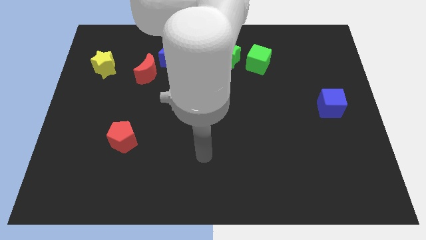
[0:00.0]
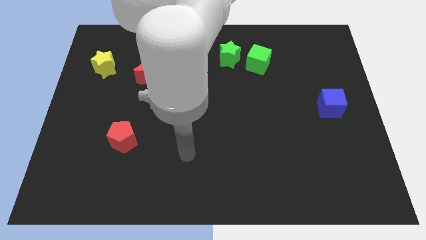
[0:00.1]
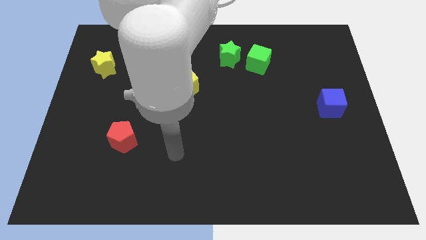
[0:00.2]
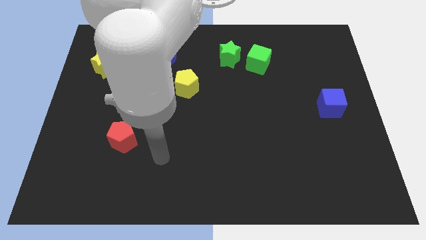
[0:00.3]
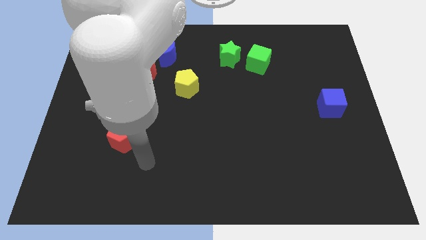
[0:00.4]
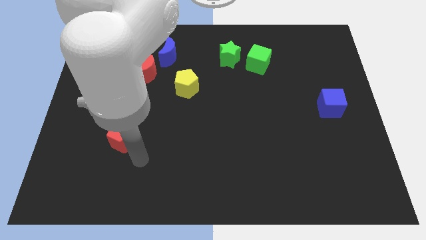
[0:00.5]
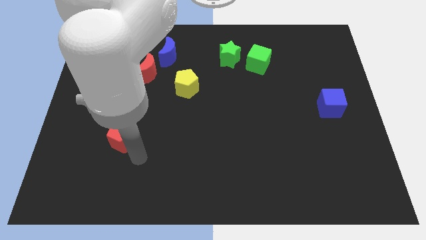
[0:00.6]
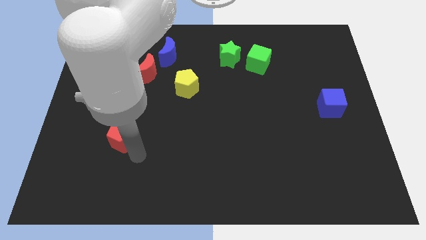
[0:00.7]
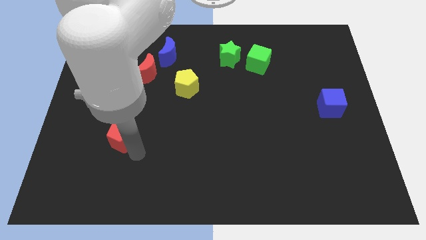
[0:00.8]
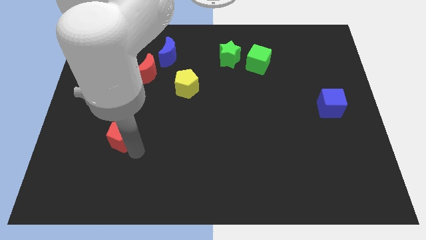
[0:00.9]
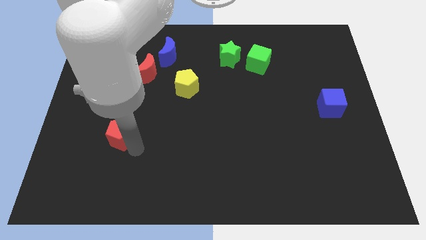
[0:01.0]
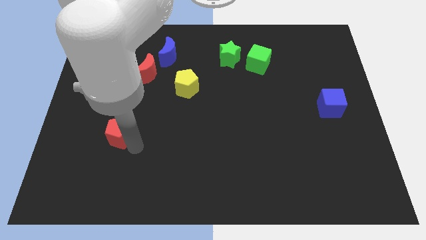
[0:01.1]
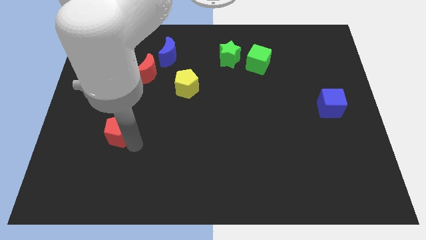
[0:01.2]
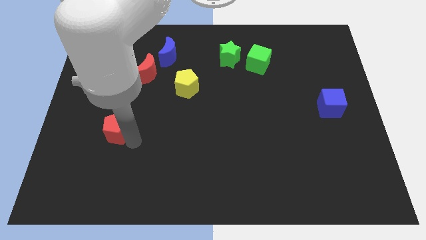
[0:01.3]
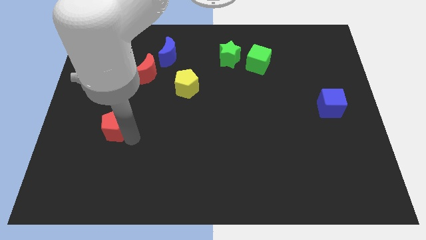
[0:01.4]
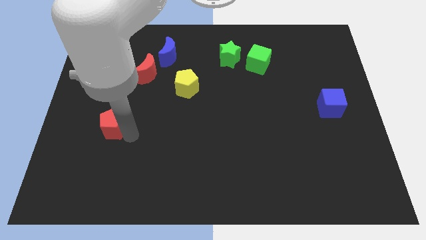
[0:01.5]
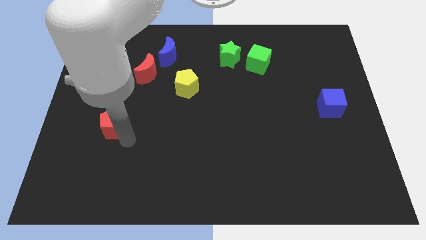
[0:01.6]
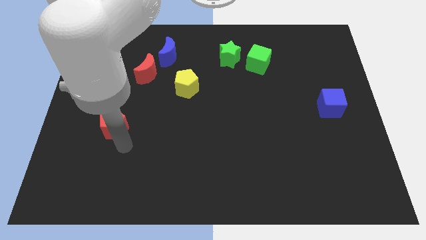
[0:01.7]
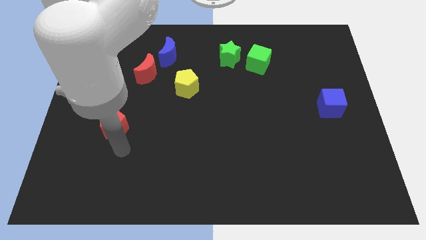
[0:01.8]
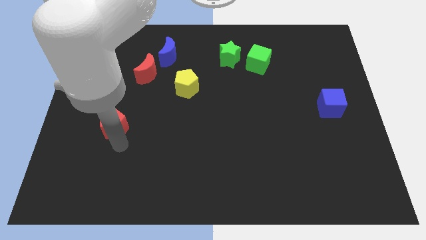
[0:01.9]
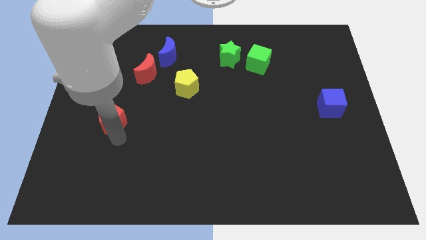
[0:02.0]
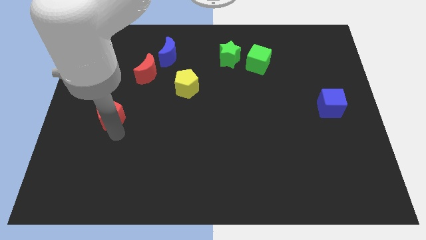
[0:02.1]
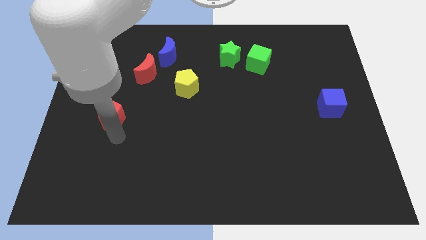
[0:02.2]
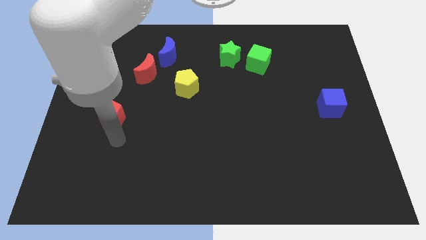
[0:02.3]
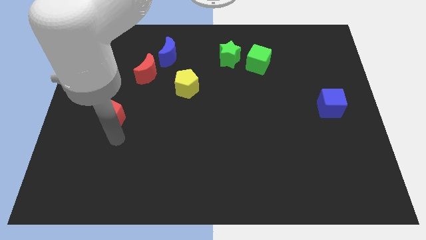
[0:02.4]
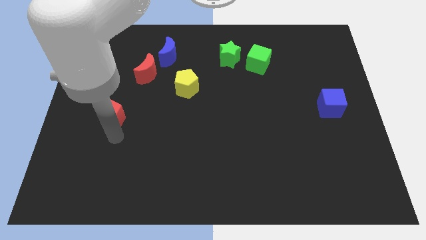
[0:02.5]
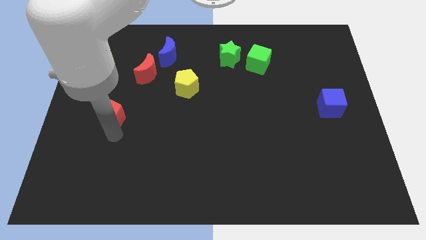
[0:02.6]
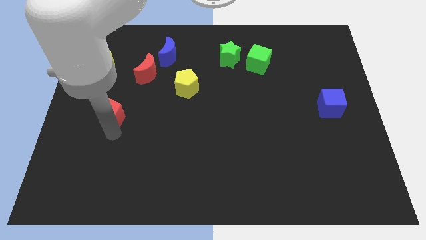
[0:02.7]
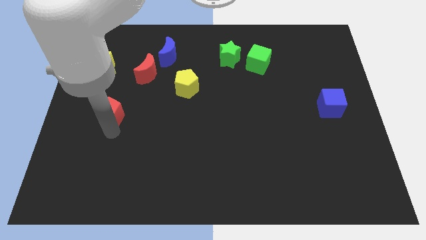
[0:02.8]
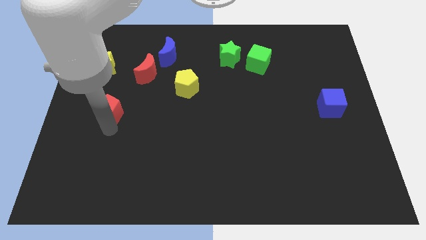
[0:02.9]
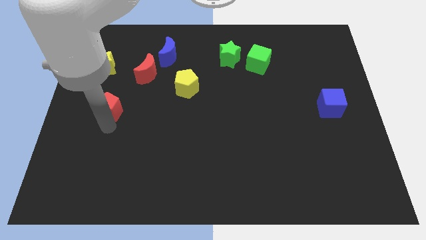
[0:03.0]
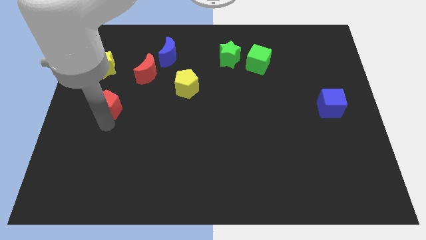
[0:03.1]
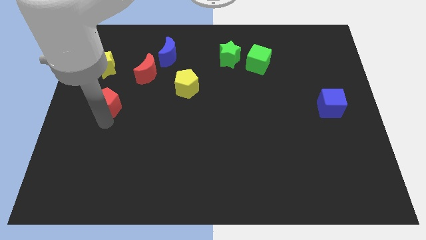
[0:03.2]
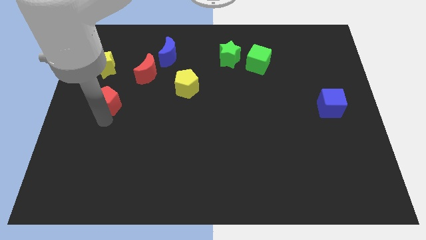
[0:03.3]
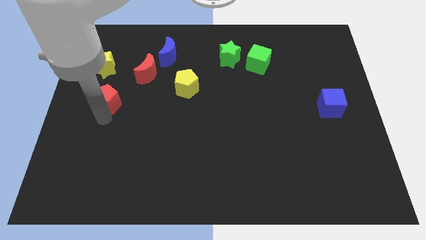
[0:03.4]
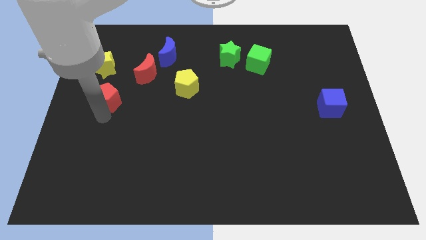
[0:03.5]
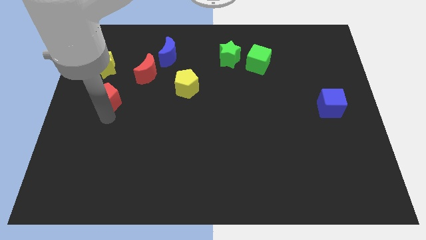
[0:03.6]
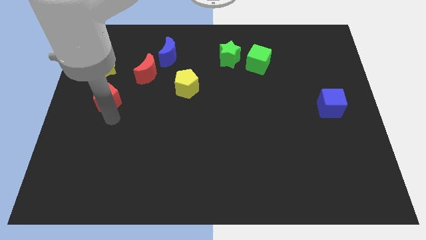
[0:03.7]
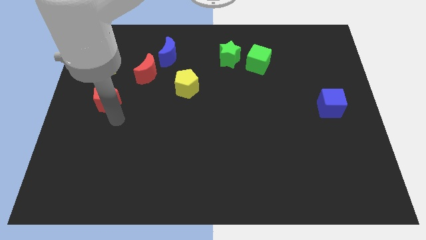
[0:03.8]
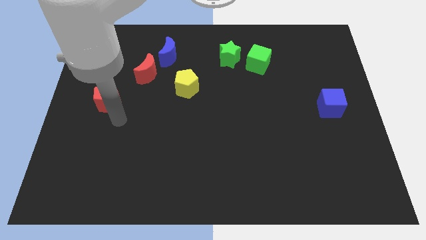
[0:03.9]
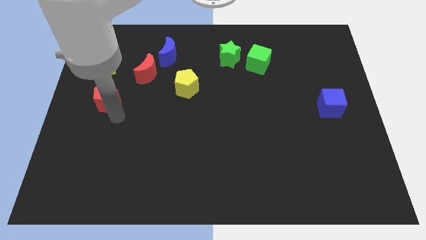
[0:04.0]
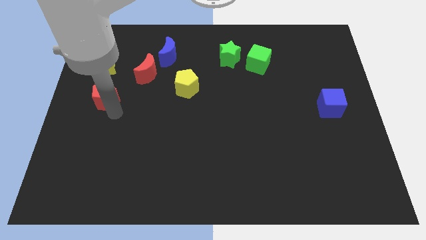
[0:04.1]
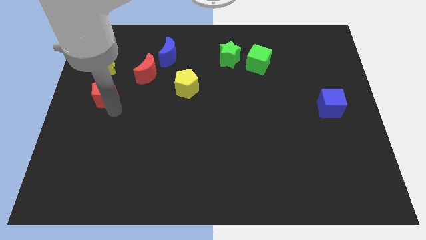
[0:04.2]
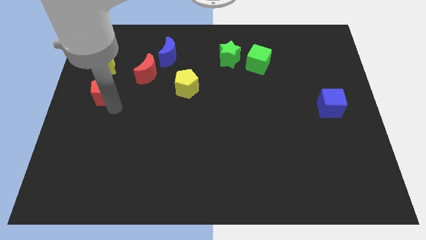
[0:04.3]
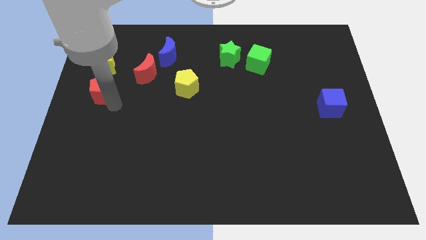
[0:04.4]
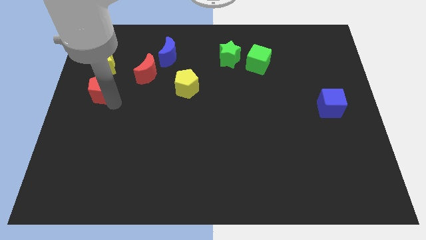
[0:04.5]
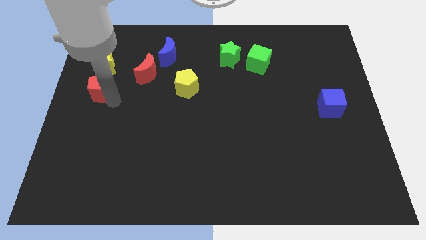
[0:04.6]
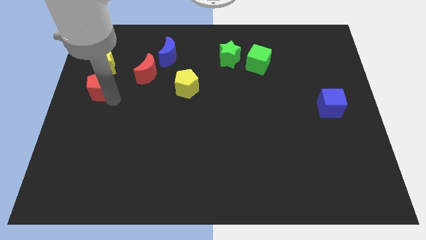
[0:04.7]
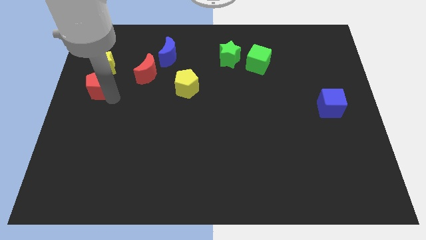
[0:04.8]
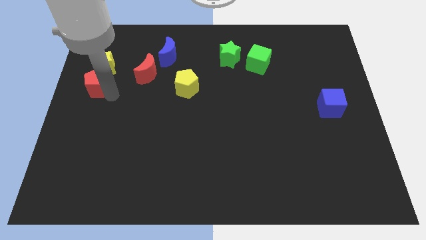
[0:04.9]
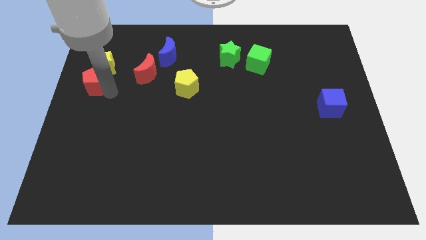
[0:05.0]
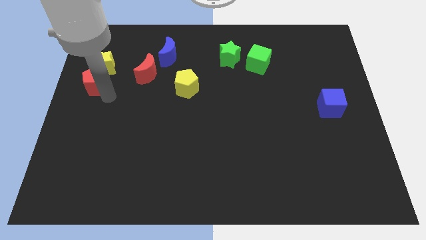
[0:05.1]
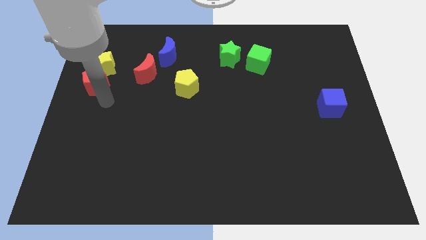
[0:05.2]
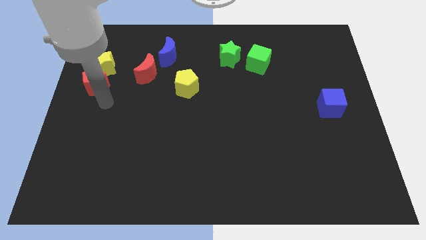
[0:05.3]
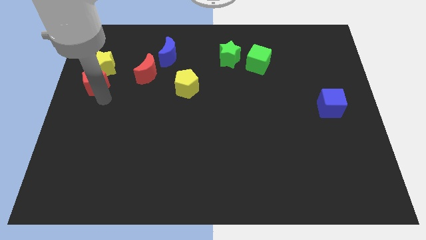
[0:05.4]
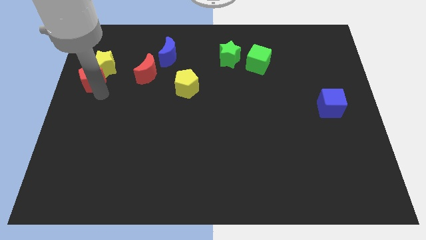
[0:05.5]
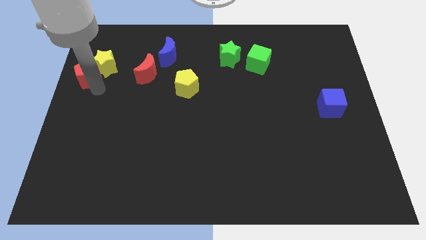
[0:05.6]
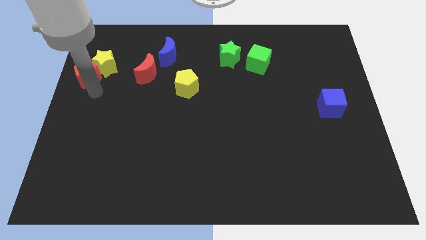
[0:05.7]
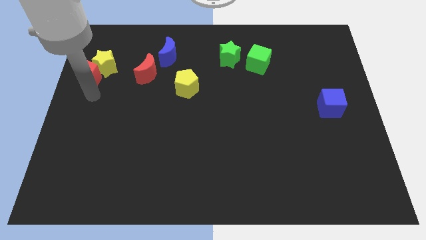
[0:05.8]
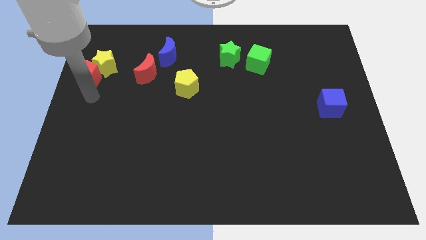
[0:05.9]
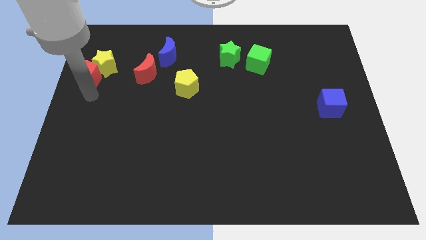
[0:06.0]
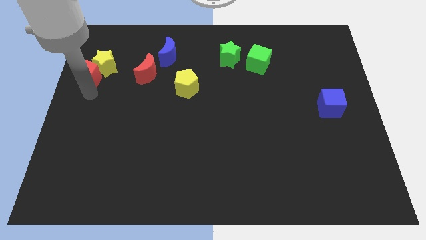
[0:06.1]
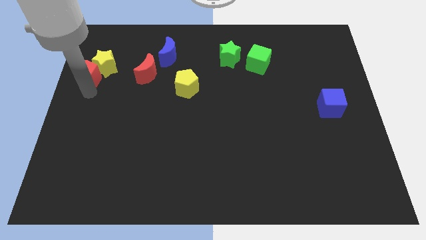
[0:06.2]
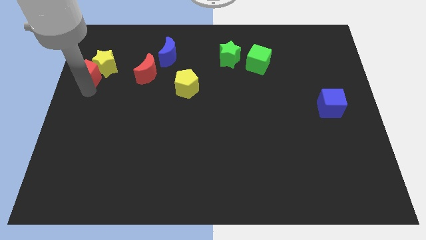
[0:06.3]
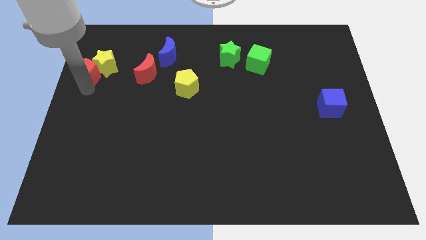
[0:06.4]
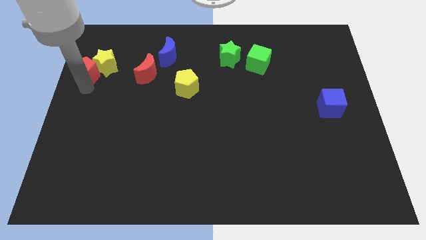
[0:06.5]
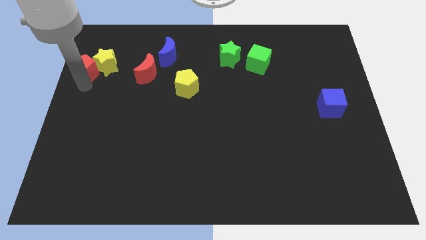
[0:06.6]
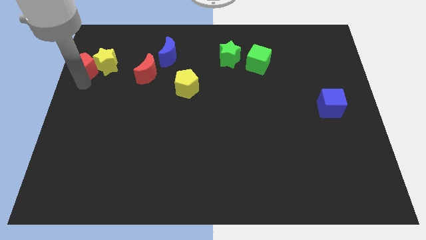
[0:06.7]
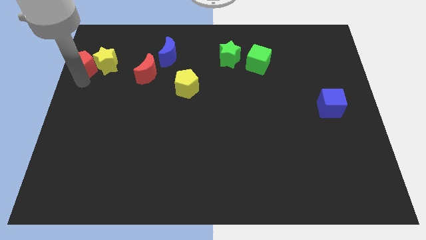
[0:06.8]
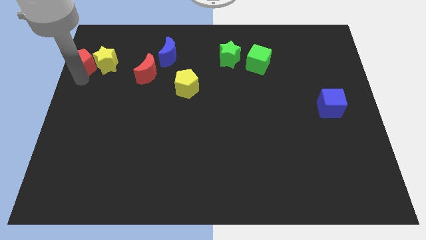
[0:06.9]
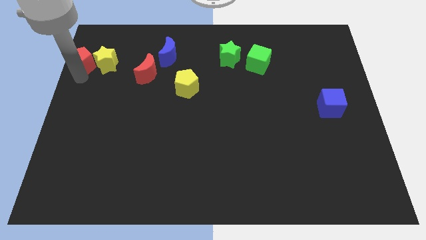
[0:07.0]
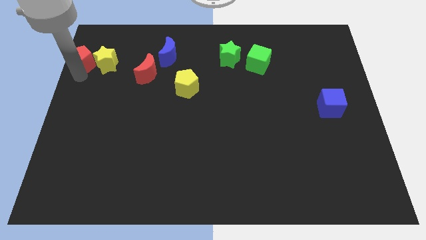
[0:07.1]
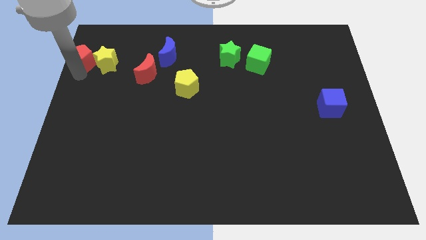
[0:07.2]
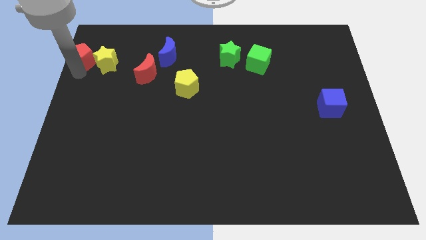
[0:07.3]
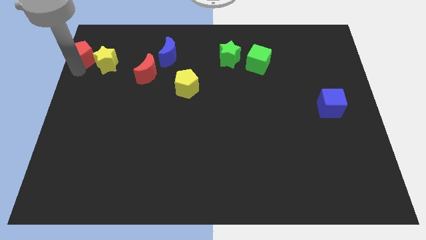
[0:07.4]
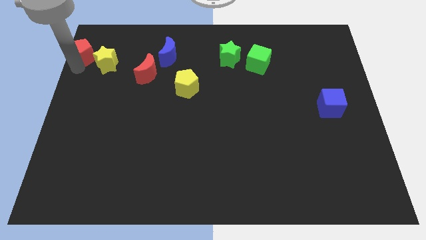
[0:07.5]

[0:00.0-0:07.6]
move the red pentagon to the top left
